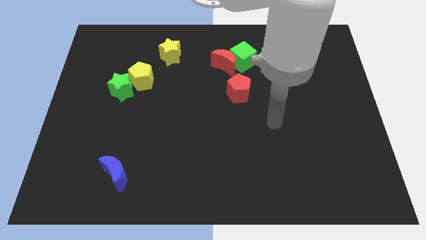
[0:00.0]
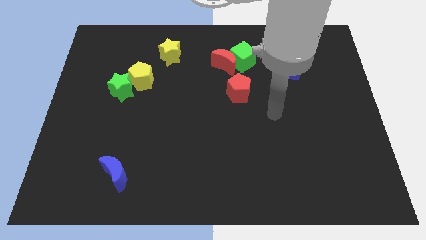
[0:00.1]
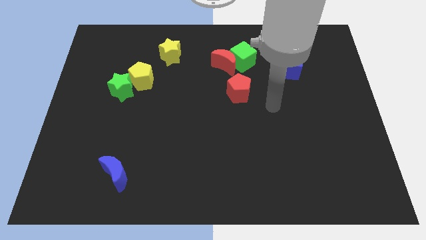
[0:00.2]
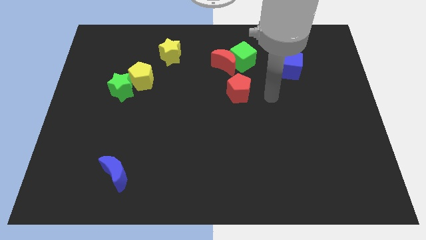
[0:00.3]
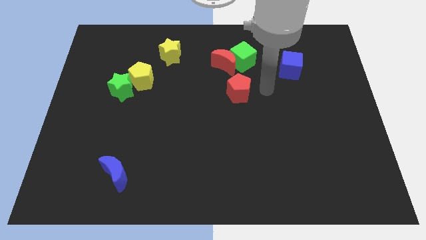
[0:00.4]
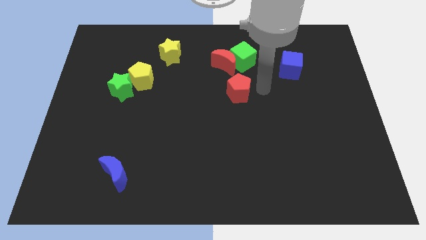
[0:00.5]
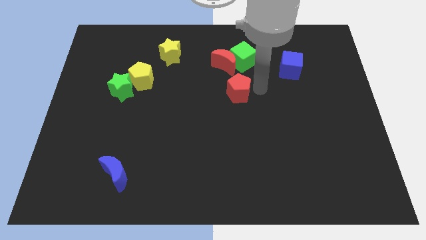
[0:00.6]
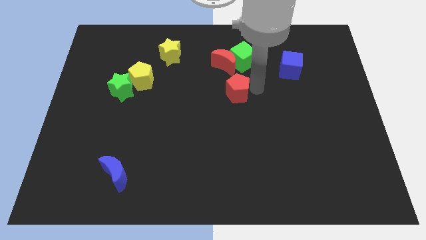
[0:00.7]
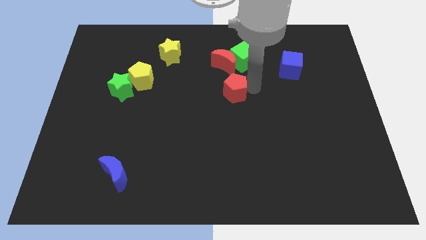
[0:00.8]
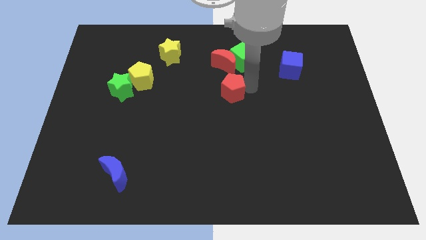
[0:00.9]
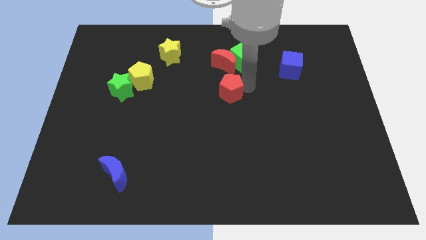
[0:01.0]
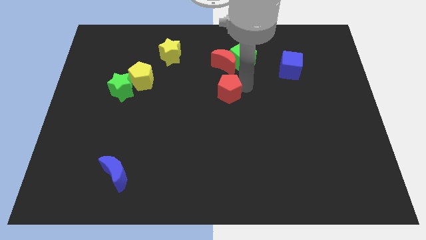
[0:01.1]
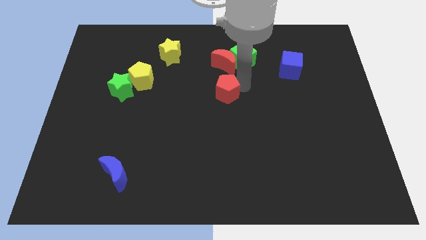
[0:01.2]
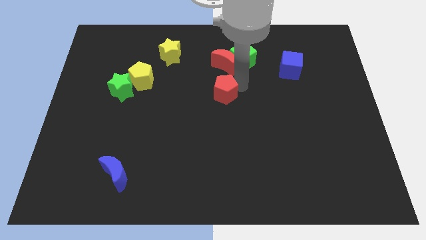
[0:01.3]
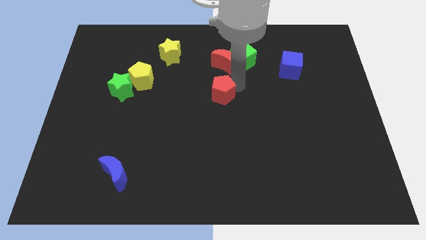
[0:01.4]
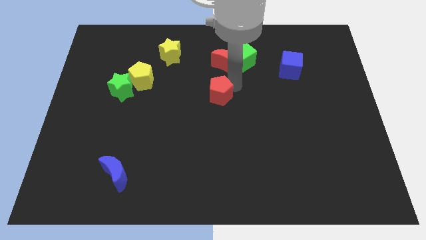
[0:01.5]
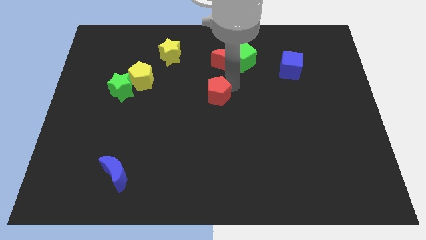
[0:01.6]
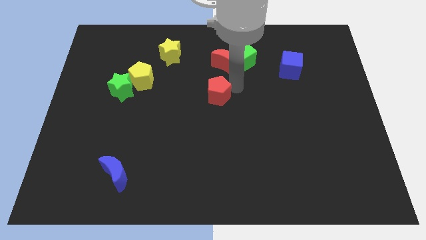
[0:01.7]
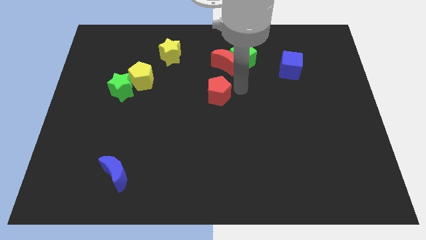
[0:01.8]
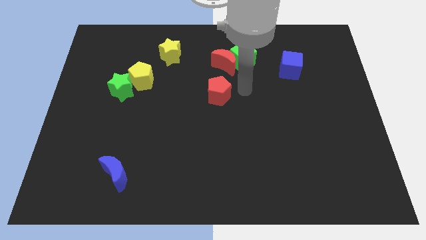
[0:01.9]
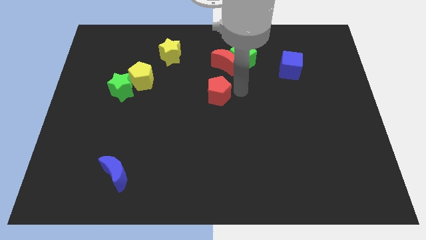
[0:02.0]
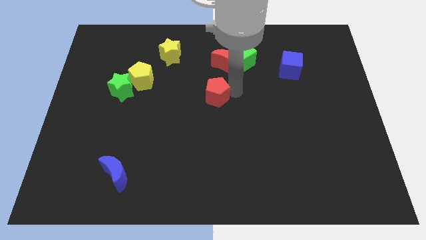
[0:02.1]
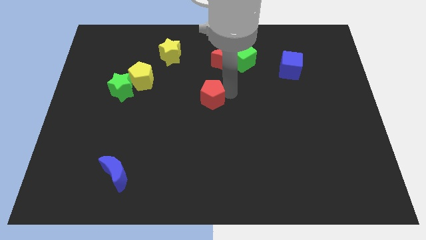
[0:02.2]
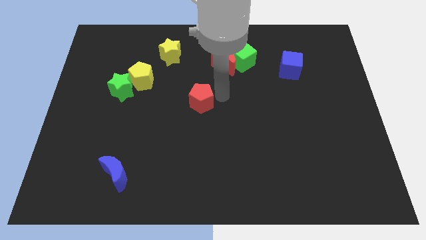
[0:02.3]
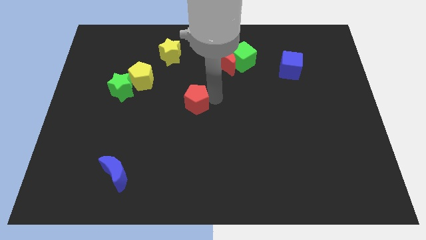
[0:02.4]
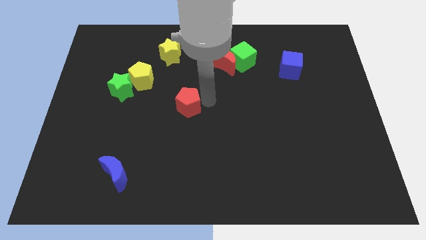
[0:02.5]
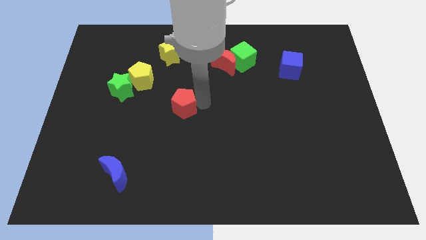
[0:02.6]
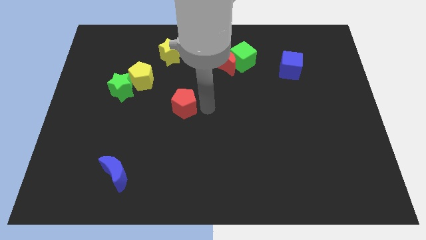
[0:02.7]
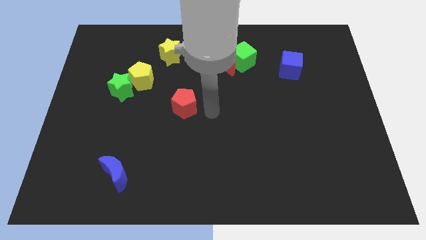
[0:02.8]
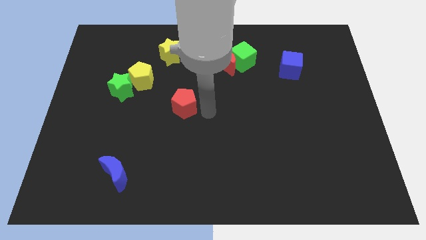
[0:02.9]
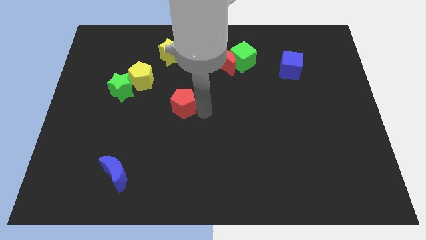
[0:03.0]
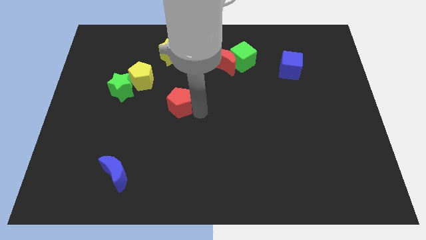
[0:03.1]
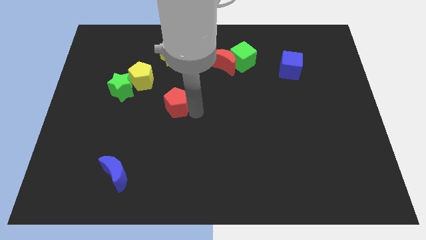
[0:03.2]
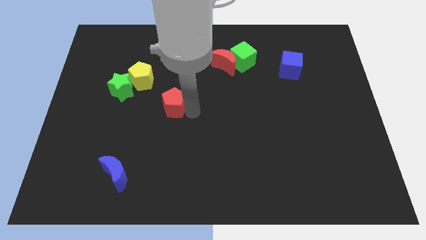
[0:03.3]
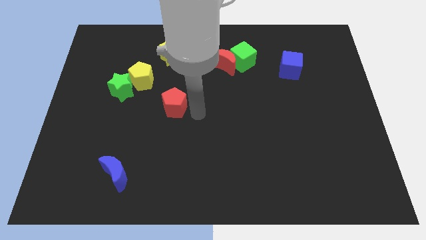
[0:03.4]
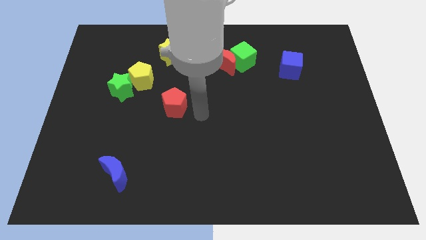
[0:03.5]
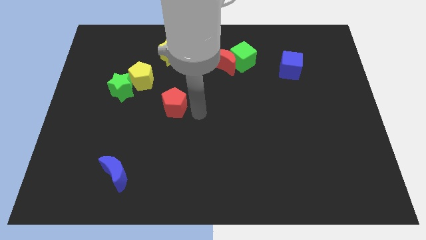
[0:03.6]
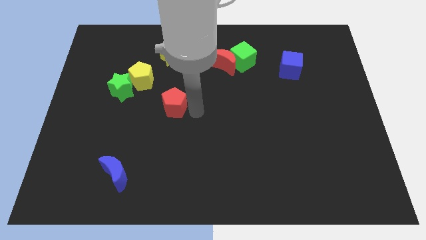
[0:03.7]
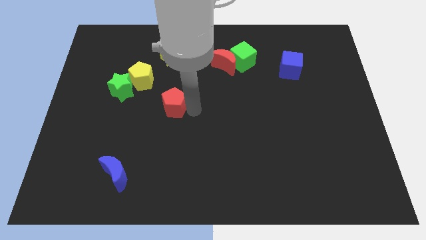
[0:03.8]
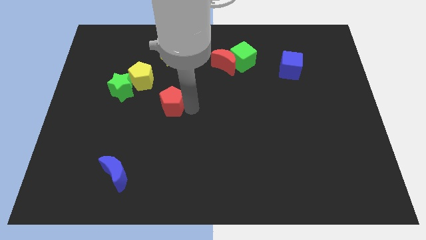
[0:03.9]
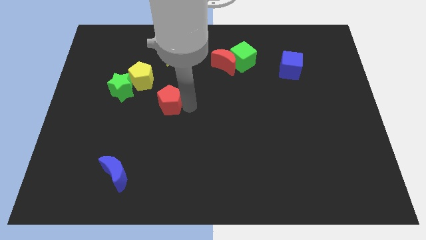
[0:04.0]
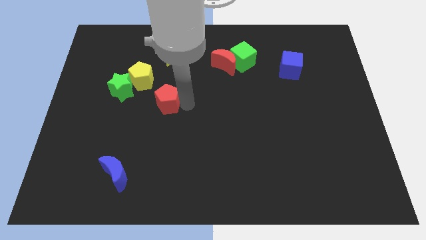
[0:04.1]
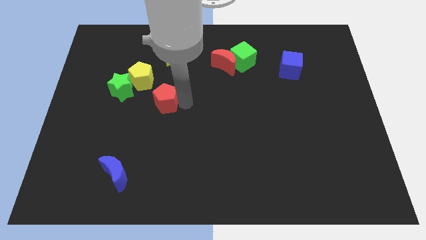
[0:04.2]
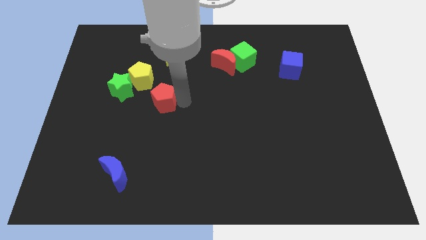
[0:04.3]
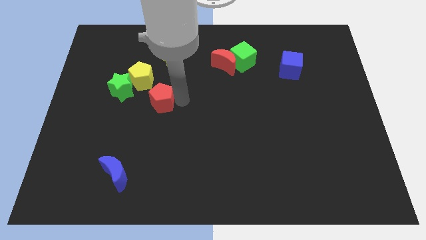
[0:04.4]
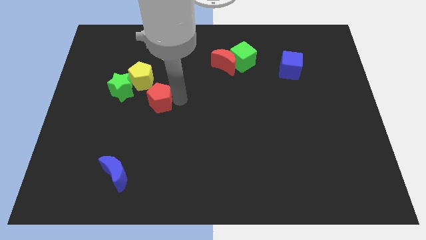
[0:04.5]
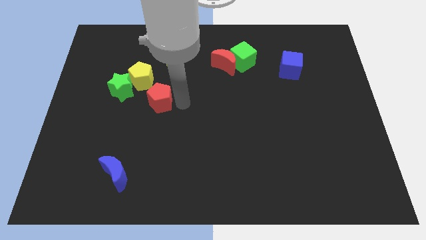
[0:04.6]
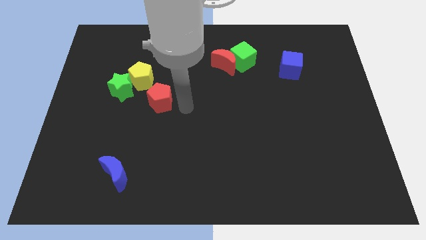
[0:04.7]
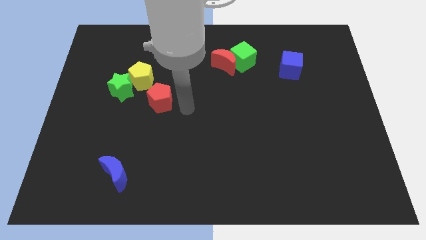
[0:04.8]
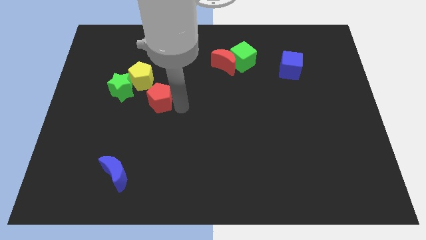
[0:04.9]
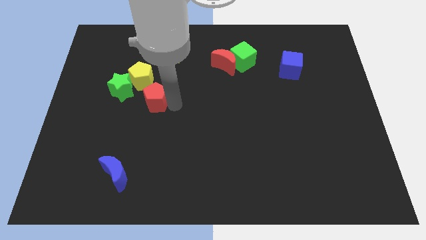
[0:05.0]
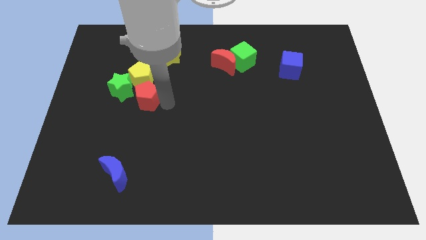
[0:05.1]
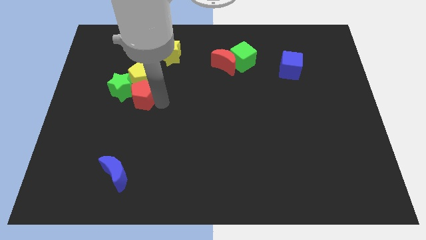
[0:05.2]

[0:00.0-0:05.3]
slide the red pentagon towards the green star

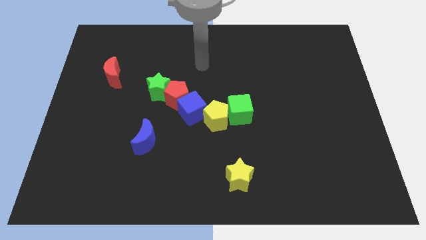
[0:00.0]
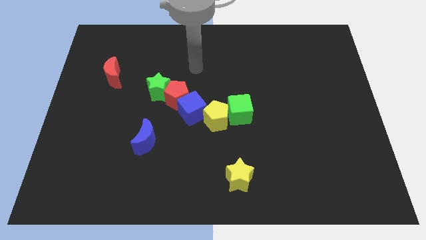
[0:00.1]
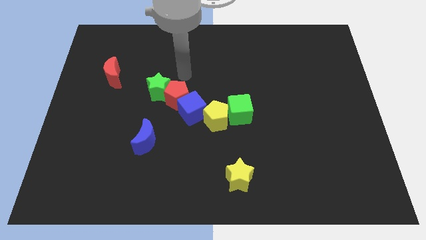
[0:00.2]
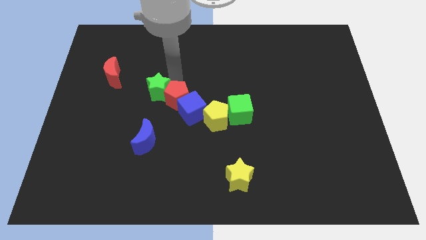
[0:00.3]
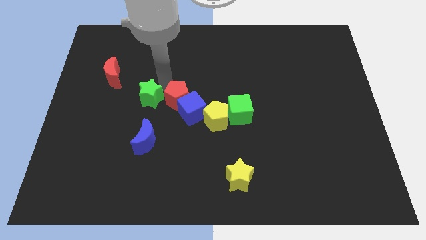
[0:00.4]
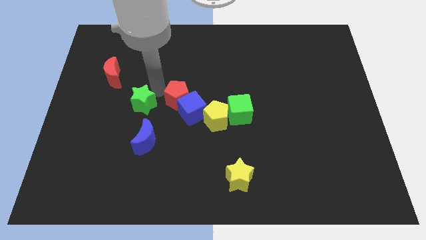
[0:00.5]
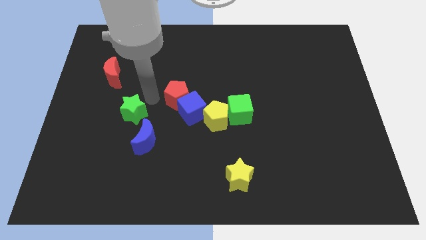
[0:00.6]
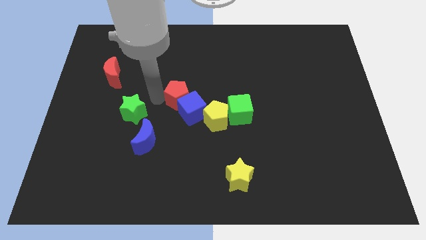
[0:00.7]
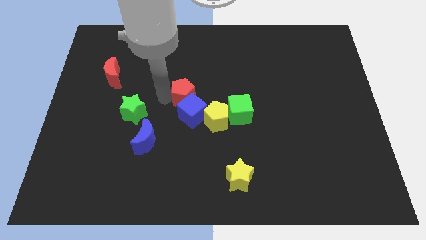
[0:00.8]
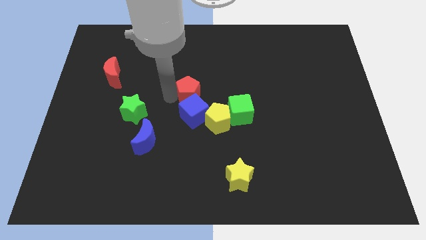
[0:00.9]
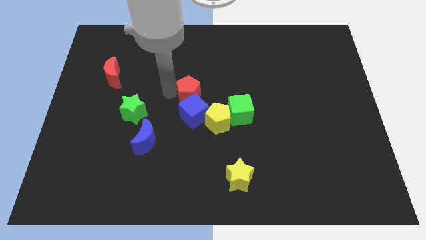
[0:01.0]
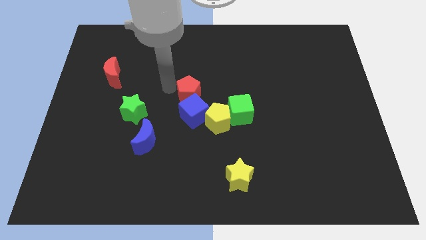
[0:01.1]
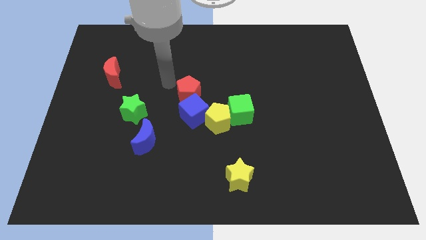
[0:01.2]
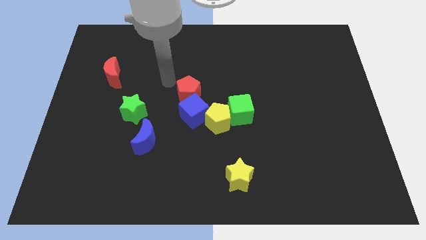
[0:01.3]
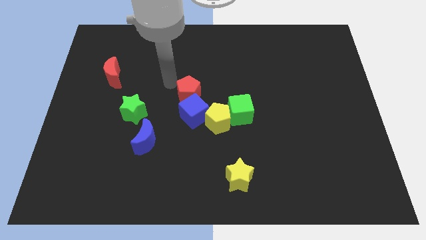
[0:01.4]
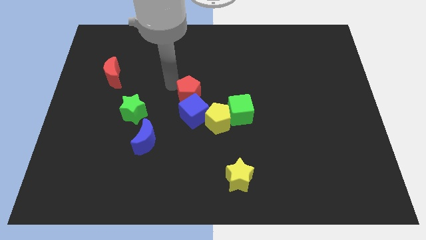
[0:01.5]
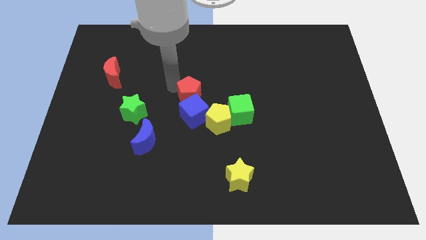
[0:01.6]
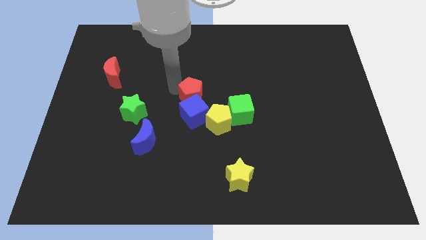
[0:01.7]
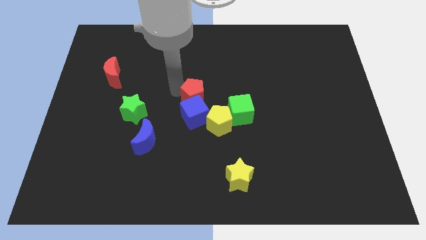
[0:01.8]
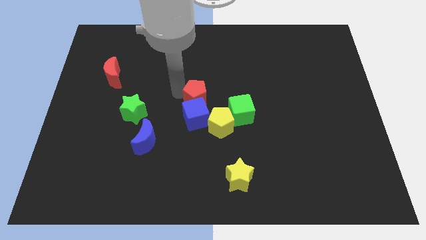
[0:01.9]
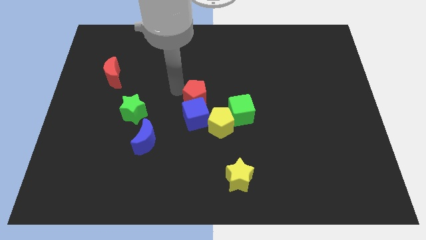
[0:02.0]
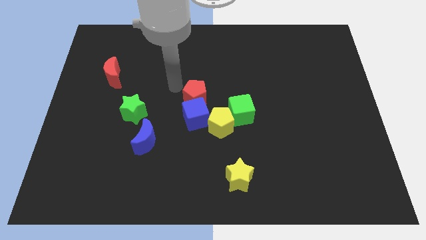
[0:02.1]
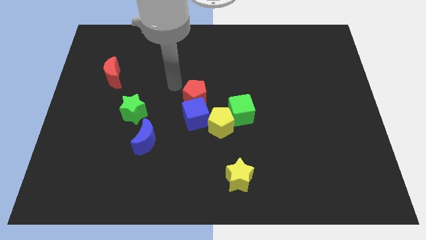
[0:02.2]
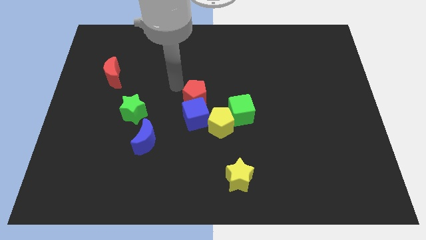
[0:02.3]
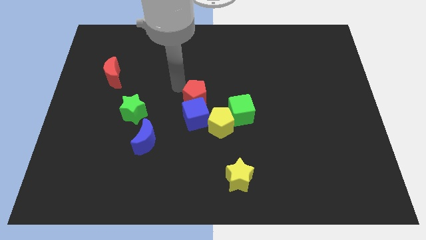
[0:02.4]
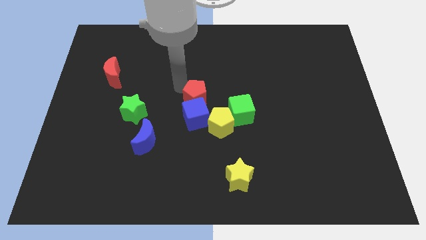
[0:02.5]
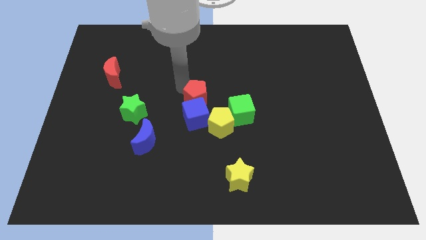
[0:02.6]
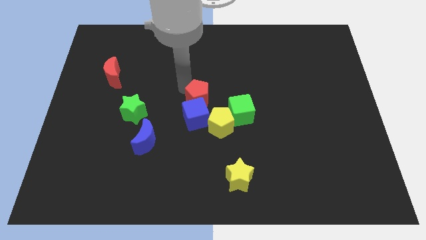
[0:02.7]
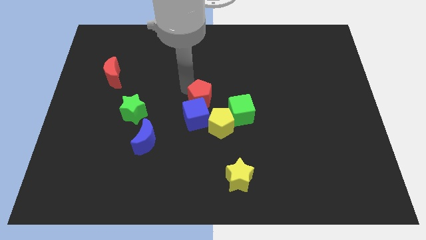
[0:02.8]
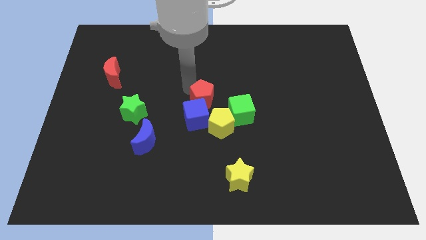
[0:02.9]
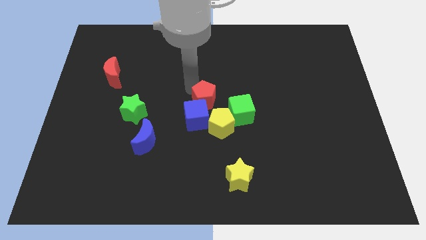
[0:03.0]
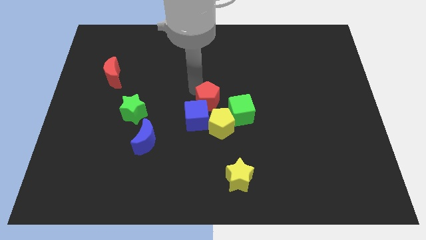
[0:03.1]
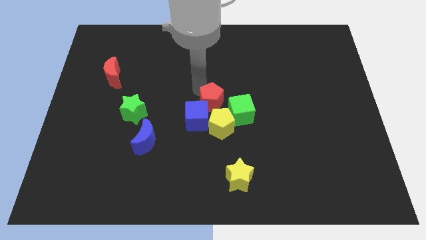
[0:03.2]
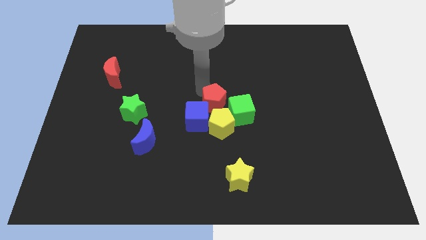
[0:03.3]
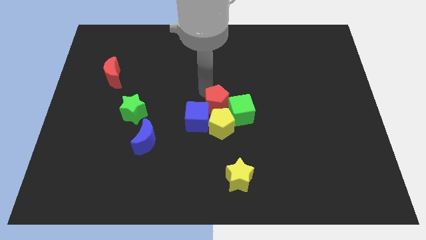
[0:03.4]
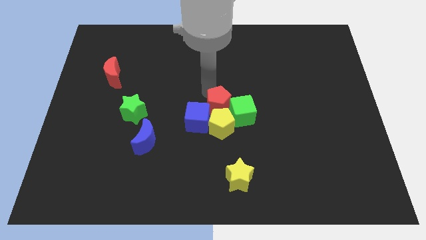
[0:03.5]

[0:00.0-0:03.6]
push the red pentagon towards the yellow pentagon
